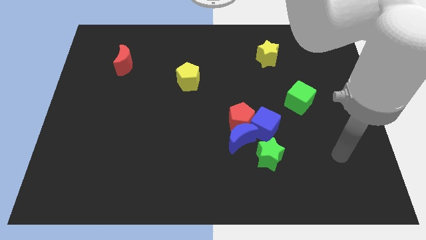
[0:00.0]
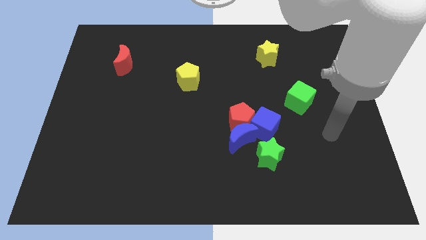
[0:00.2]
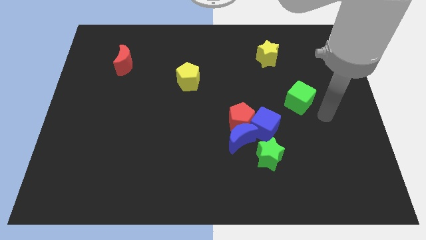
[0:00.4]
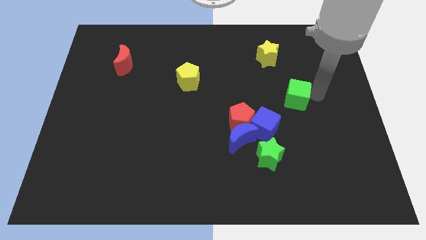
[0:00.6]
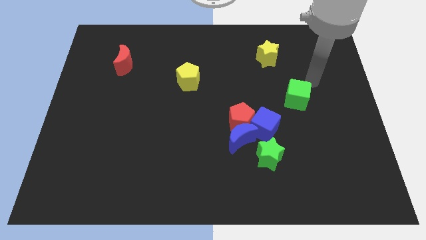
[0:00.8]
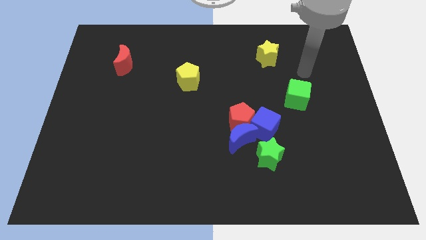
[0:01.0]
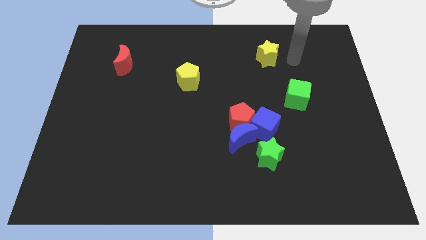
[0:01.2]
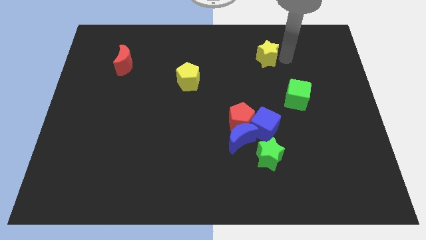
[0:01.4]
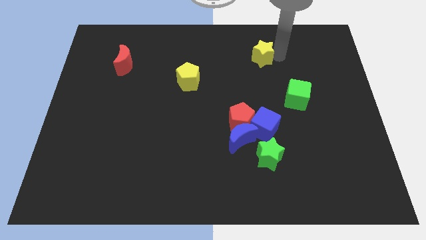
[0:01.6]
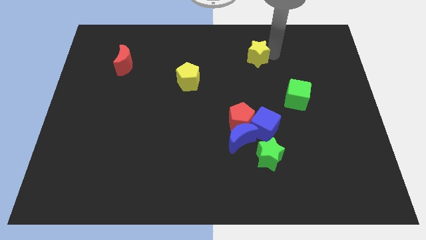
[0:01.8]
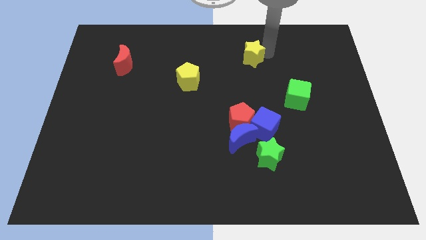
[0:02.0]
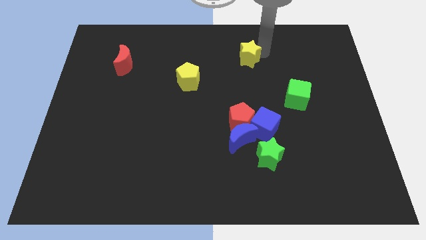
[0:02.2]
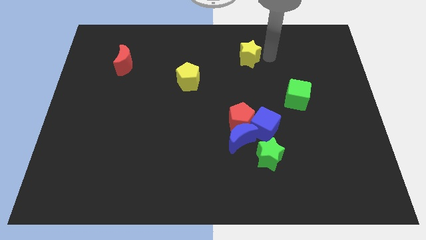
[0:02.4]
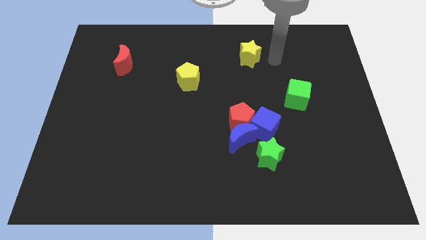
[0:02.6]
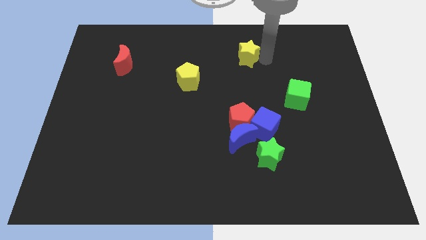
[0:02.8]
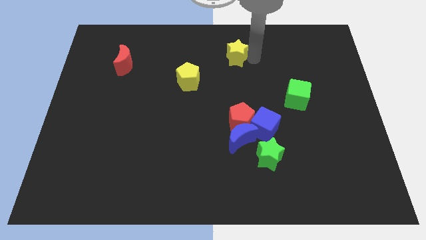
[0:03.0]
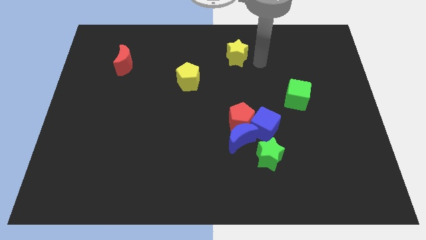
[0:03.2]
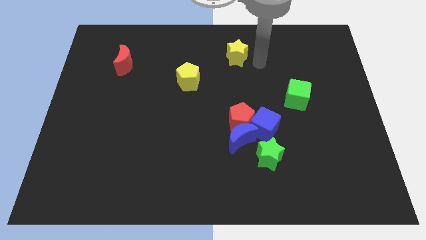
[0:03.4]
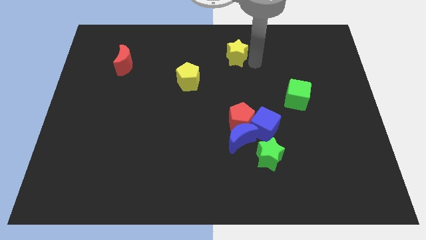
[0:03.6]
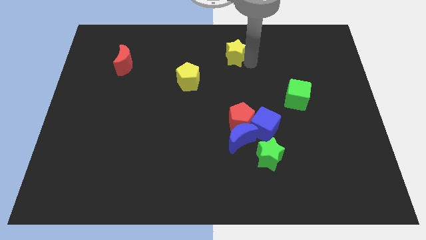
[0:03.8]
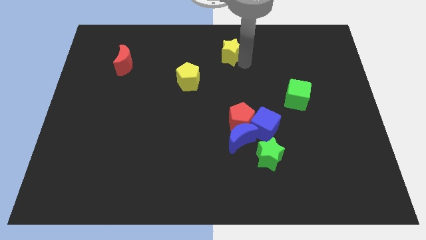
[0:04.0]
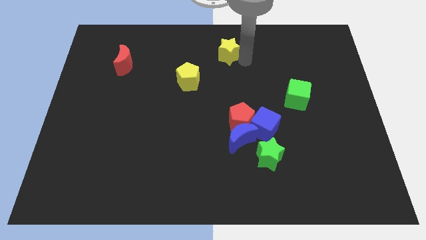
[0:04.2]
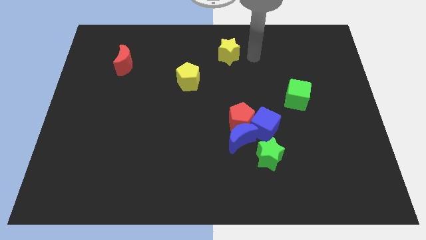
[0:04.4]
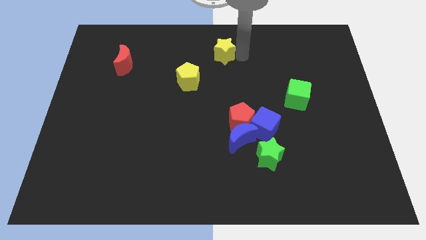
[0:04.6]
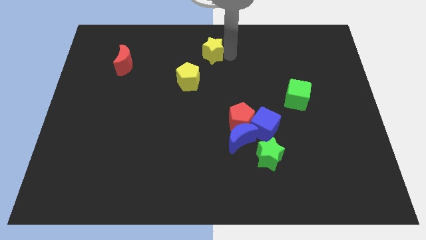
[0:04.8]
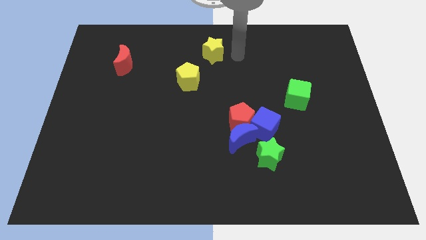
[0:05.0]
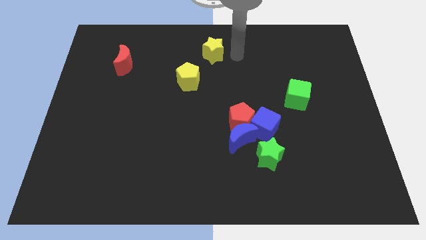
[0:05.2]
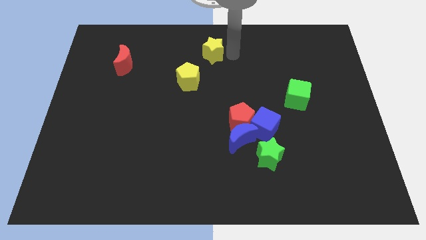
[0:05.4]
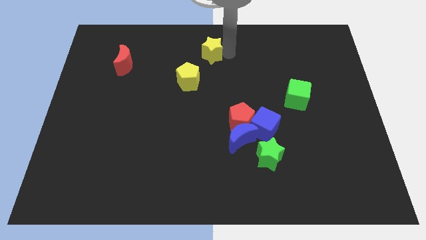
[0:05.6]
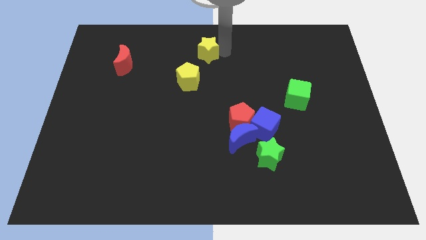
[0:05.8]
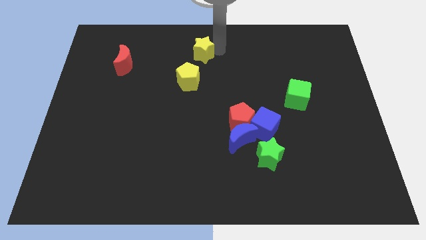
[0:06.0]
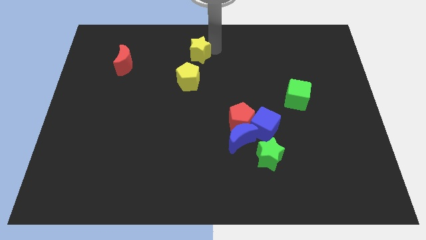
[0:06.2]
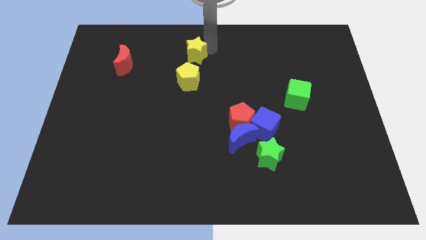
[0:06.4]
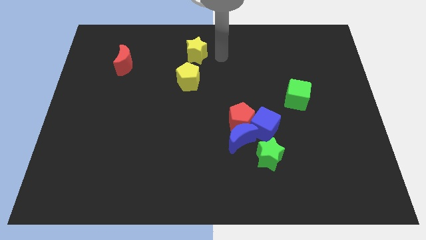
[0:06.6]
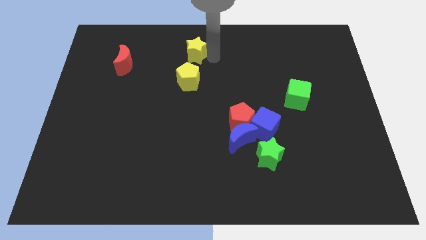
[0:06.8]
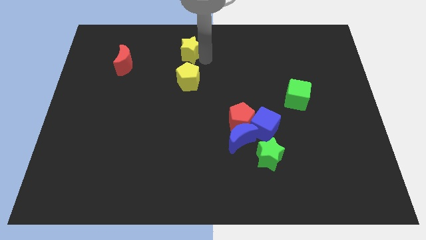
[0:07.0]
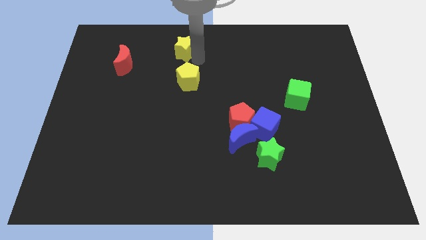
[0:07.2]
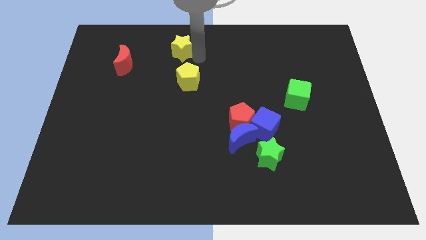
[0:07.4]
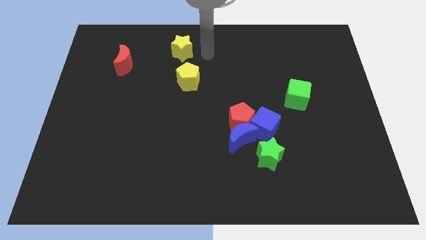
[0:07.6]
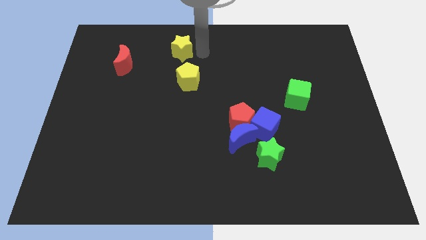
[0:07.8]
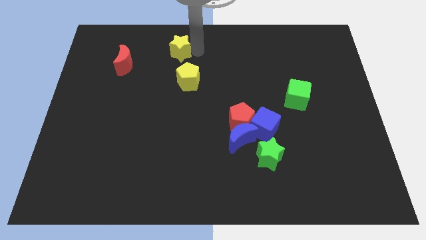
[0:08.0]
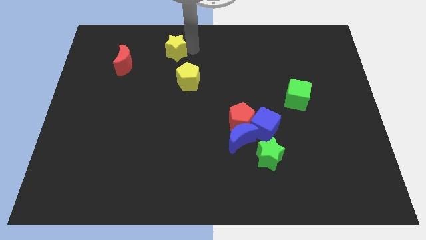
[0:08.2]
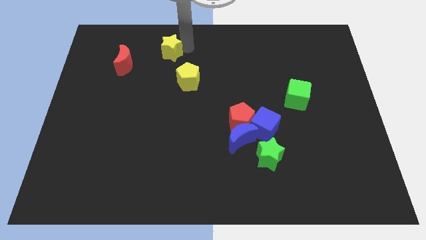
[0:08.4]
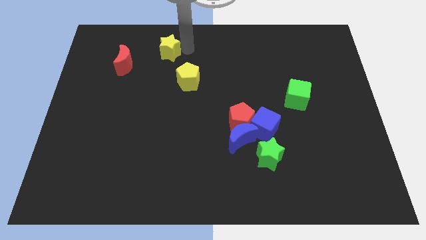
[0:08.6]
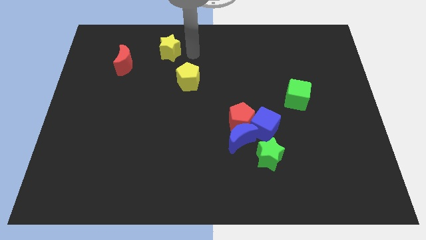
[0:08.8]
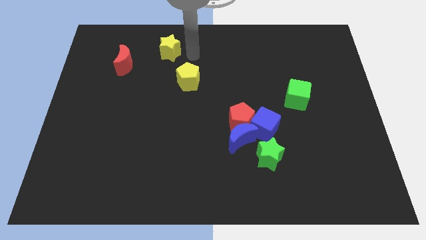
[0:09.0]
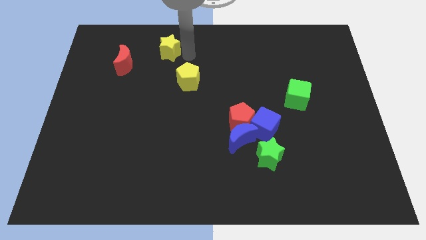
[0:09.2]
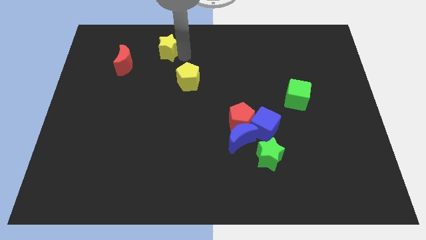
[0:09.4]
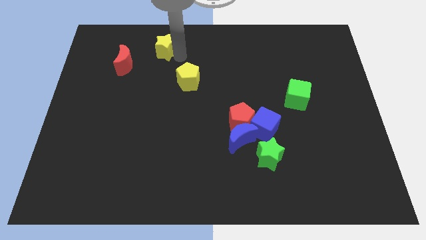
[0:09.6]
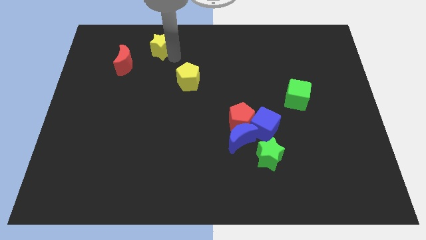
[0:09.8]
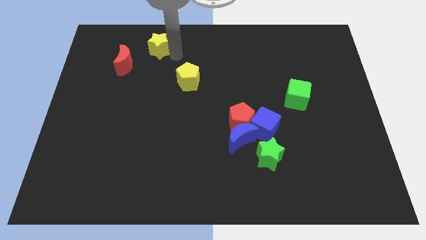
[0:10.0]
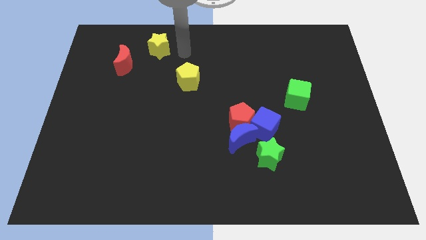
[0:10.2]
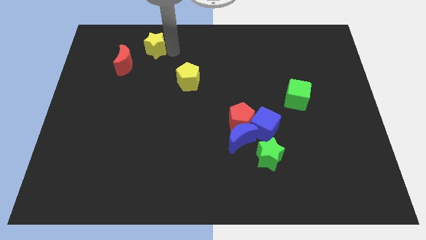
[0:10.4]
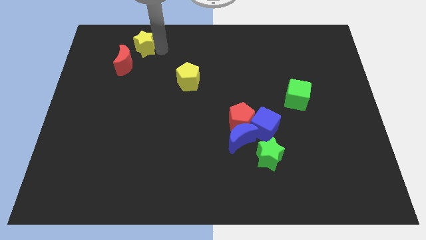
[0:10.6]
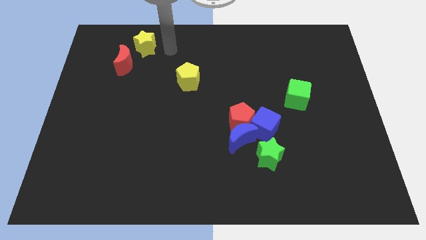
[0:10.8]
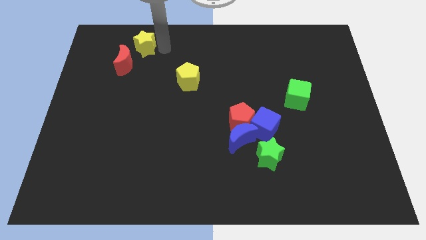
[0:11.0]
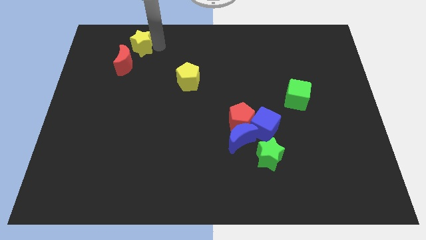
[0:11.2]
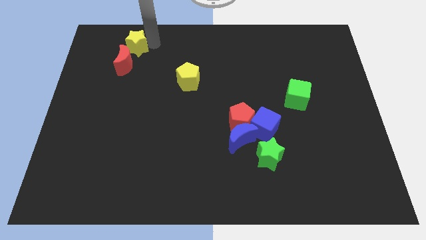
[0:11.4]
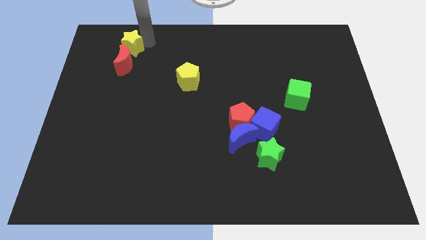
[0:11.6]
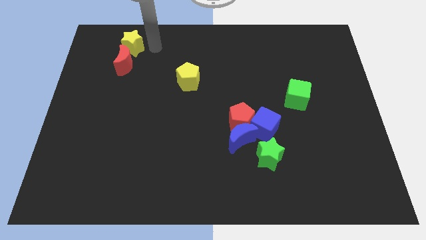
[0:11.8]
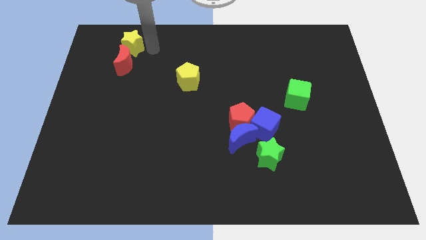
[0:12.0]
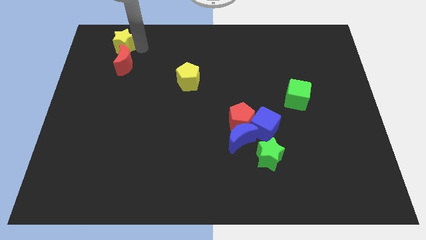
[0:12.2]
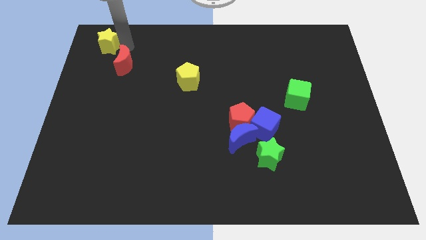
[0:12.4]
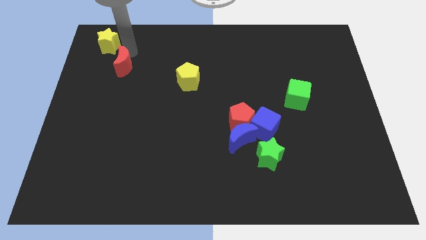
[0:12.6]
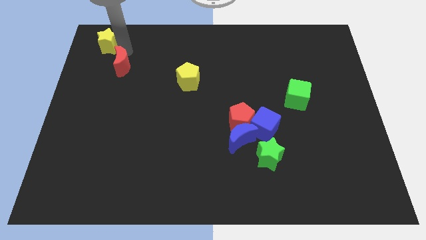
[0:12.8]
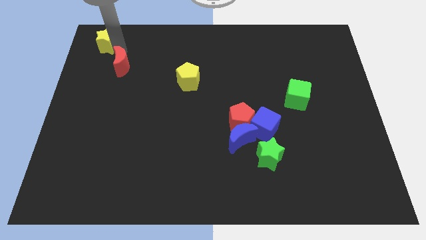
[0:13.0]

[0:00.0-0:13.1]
push the yellow star to the top left of the board
